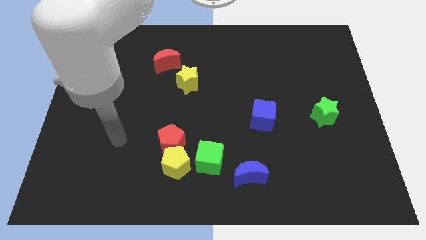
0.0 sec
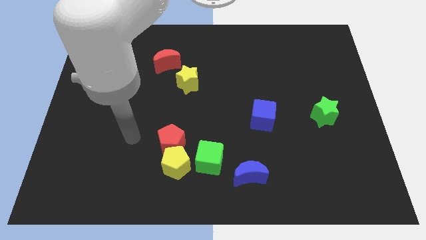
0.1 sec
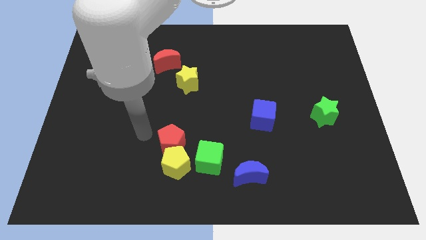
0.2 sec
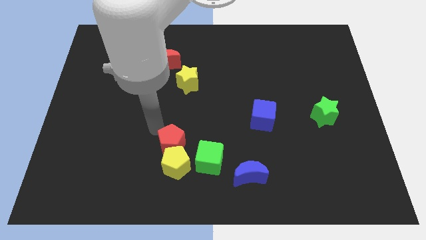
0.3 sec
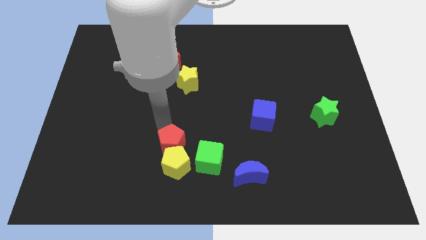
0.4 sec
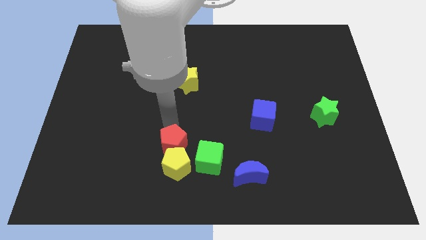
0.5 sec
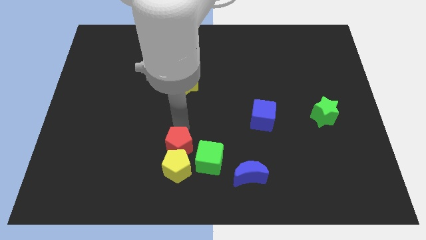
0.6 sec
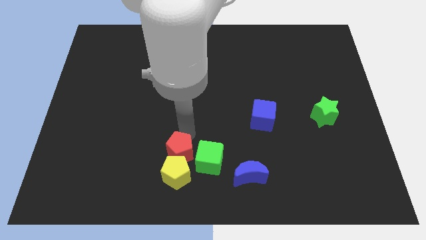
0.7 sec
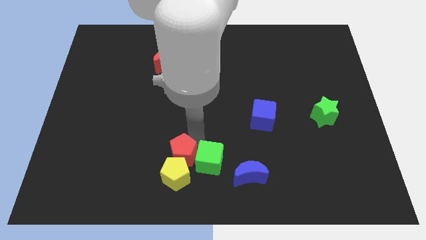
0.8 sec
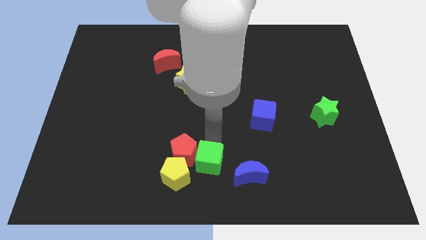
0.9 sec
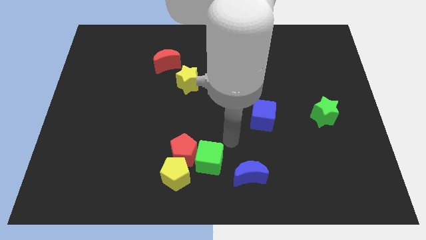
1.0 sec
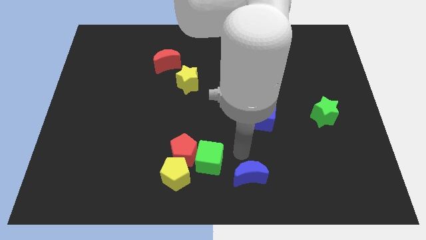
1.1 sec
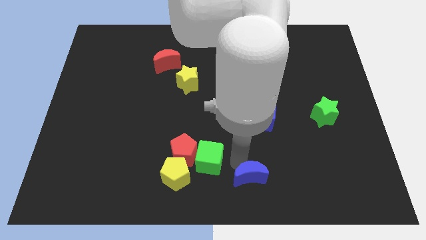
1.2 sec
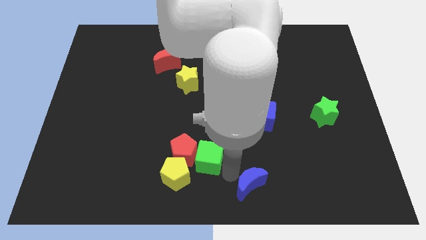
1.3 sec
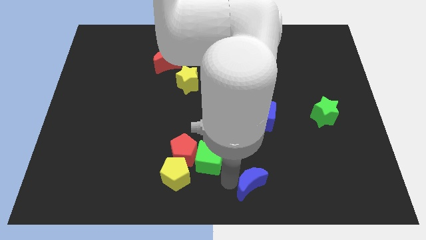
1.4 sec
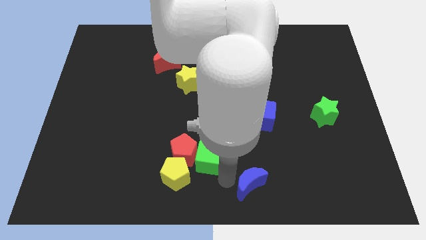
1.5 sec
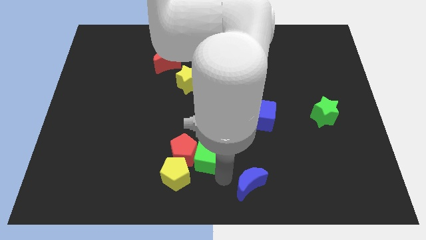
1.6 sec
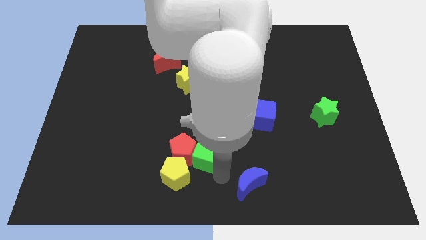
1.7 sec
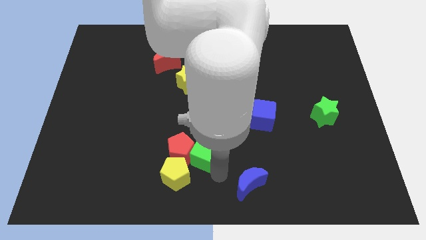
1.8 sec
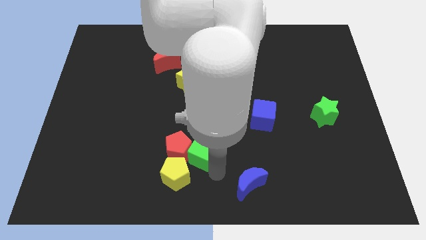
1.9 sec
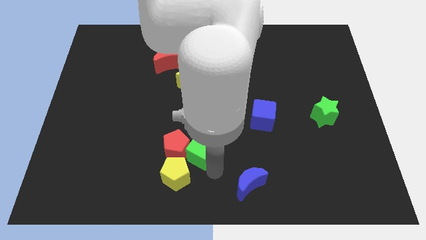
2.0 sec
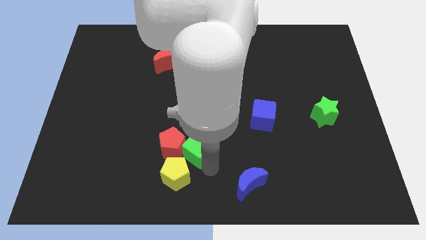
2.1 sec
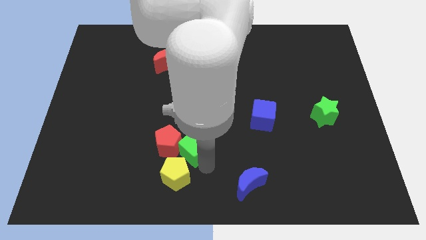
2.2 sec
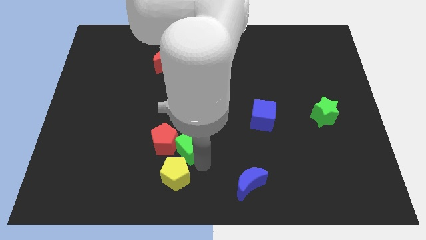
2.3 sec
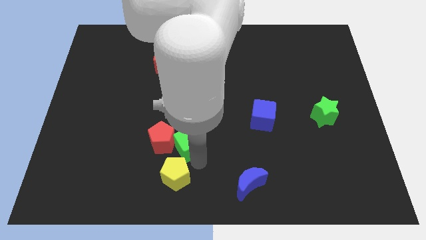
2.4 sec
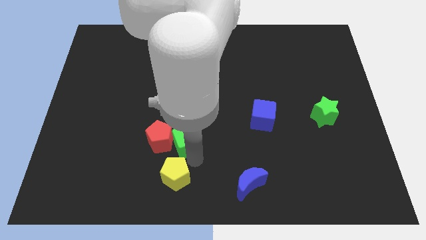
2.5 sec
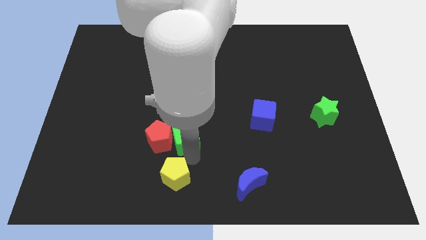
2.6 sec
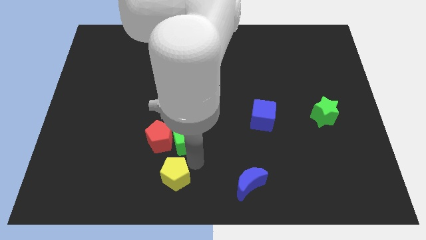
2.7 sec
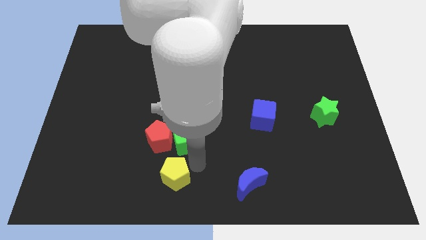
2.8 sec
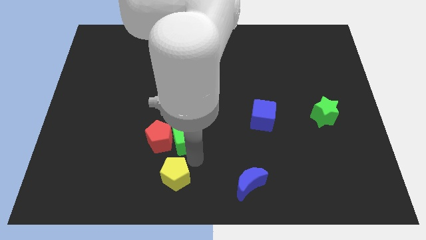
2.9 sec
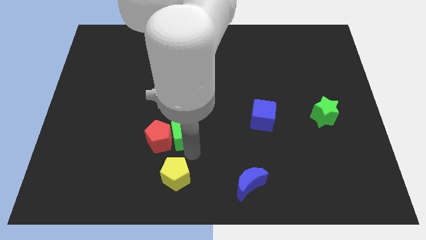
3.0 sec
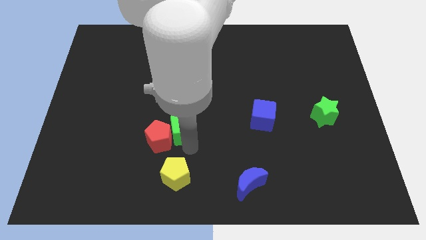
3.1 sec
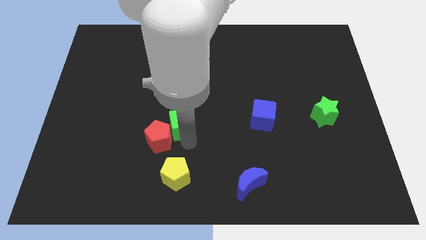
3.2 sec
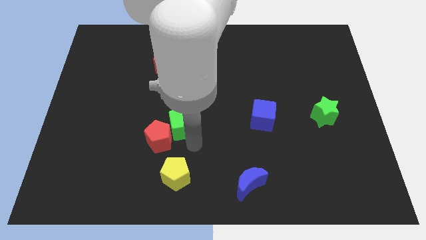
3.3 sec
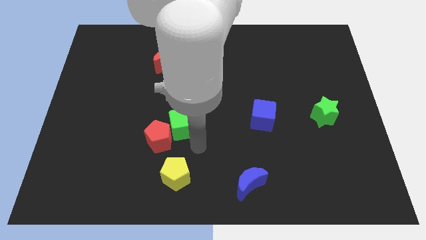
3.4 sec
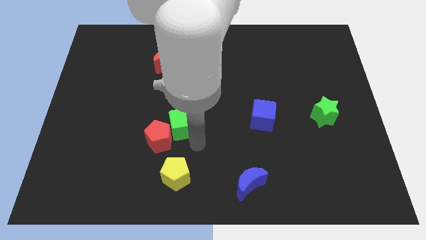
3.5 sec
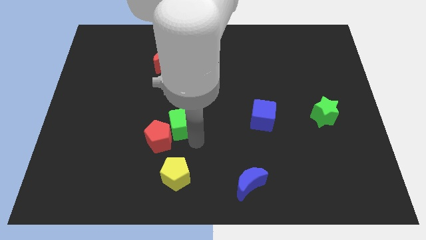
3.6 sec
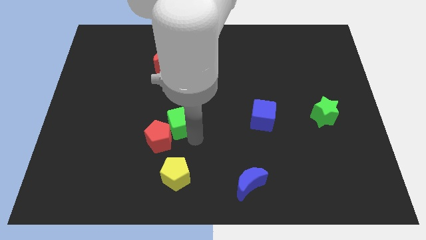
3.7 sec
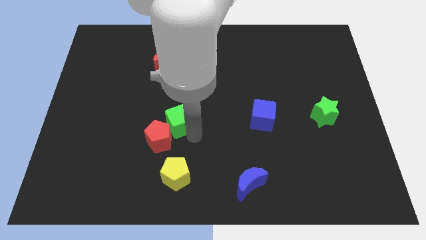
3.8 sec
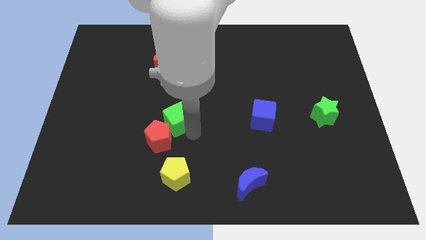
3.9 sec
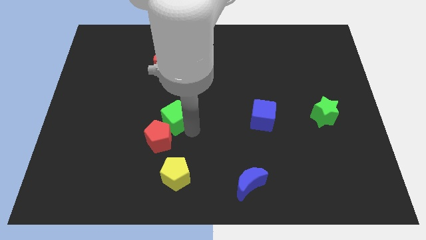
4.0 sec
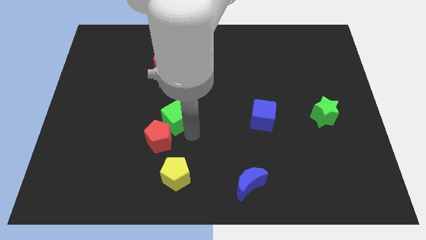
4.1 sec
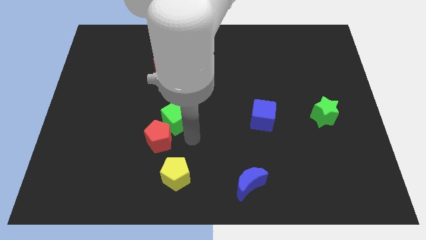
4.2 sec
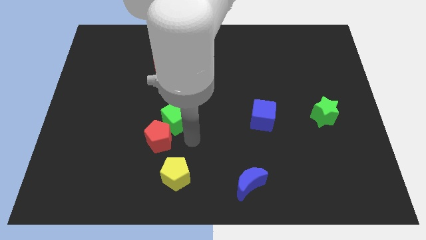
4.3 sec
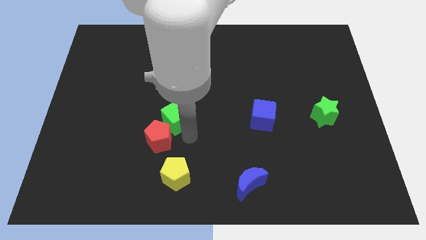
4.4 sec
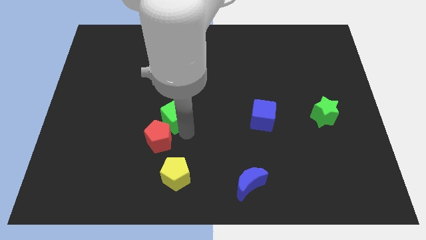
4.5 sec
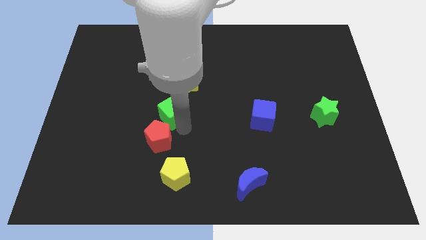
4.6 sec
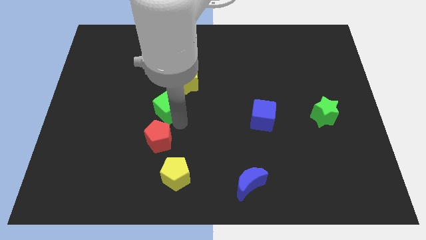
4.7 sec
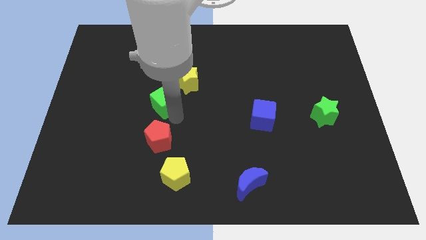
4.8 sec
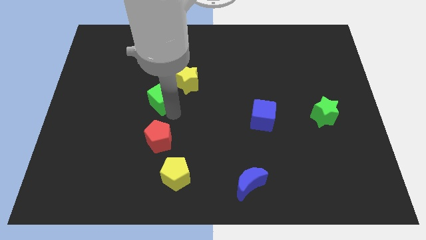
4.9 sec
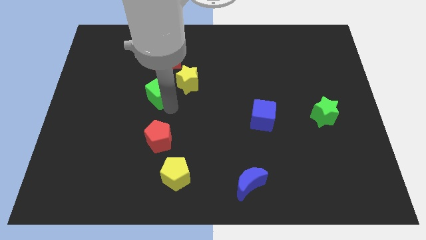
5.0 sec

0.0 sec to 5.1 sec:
slide the green cube diagonally upwards and to the left

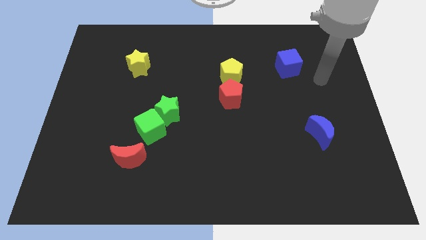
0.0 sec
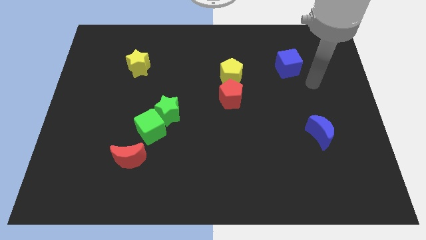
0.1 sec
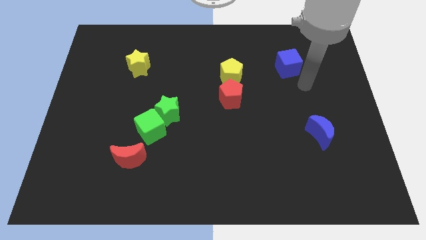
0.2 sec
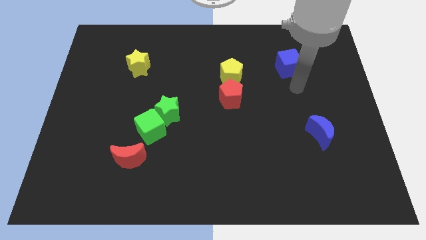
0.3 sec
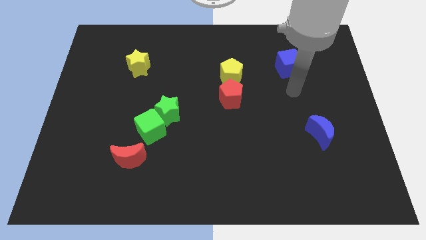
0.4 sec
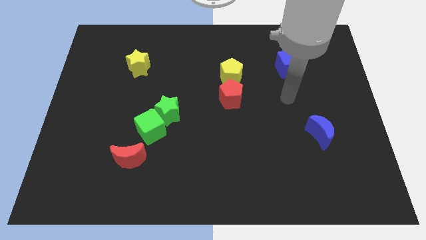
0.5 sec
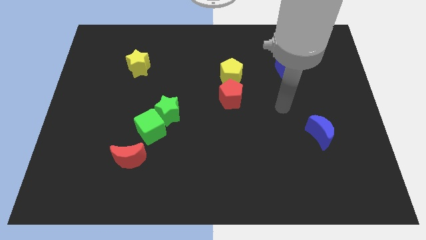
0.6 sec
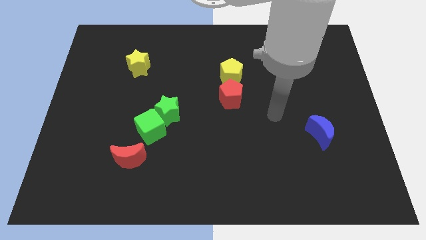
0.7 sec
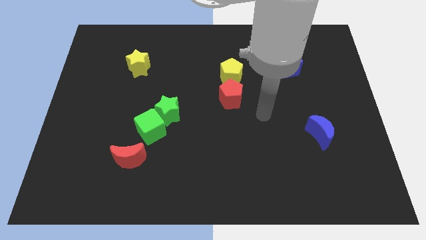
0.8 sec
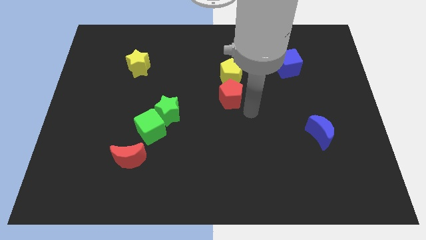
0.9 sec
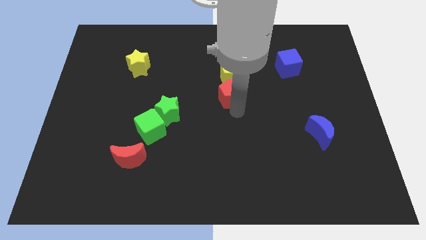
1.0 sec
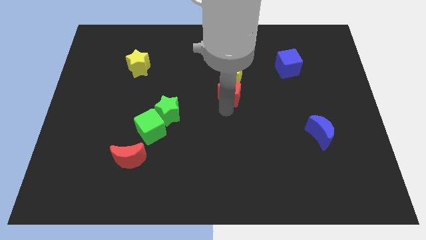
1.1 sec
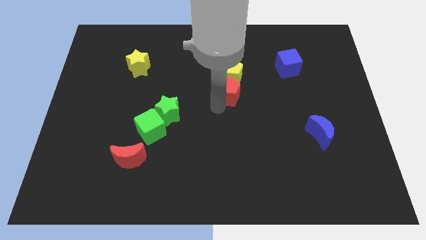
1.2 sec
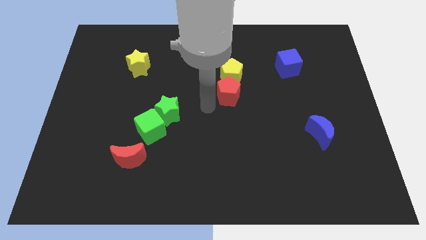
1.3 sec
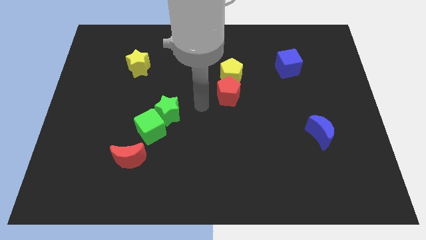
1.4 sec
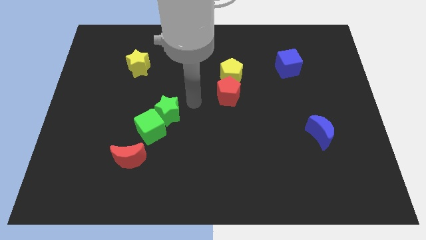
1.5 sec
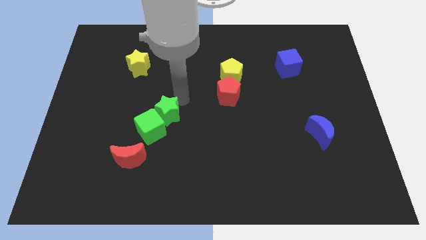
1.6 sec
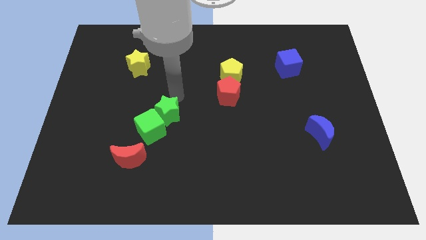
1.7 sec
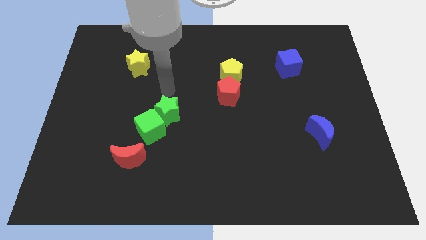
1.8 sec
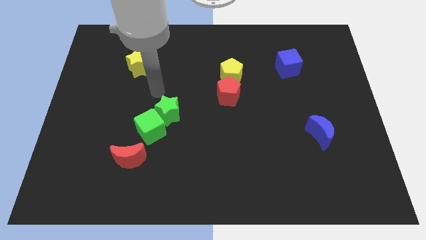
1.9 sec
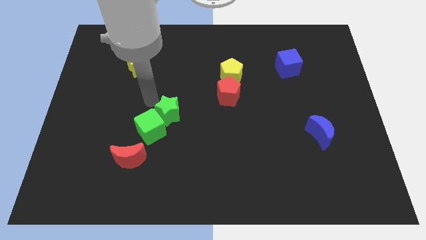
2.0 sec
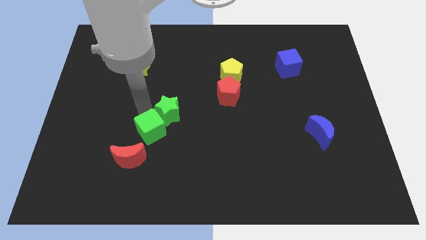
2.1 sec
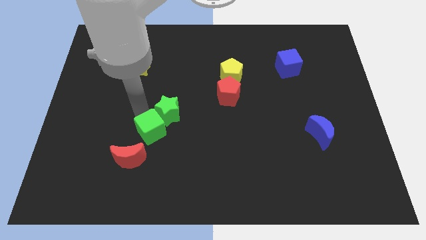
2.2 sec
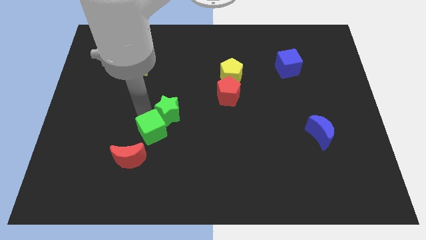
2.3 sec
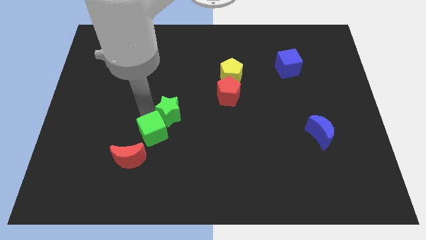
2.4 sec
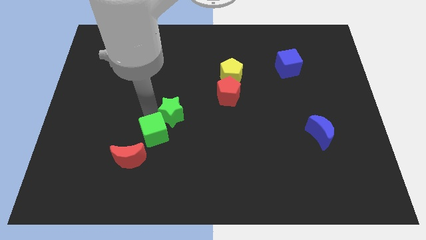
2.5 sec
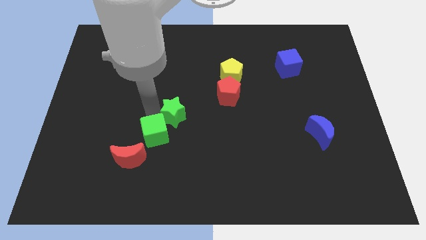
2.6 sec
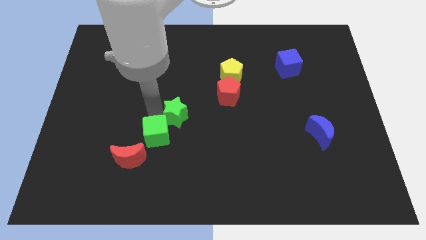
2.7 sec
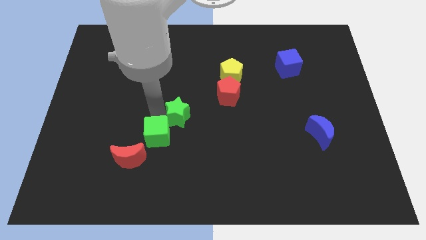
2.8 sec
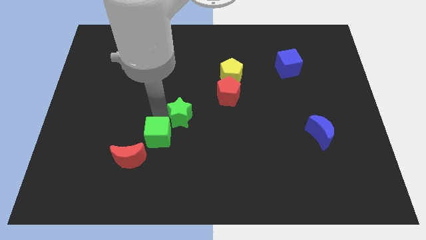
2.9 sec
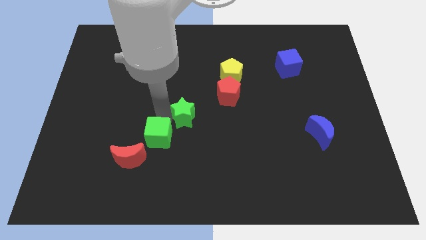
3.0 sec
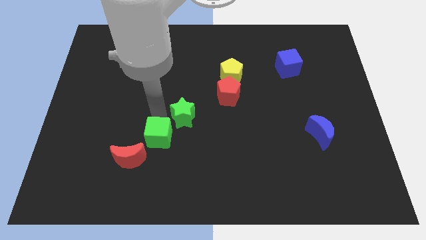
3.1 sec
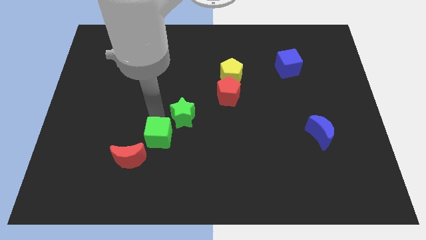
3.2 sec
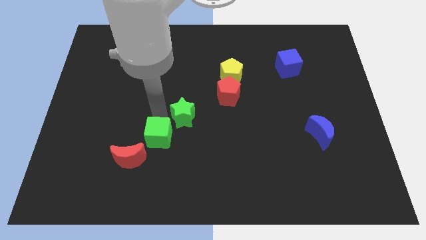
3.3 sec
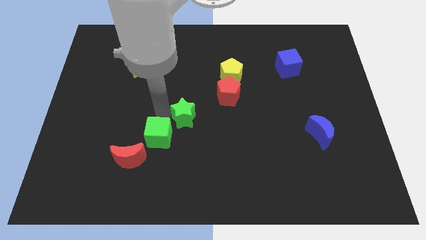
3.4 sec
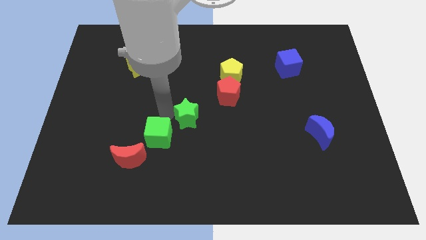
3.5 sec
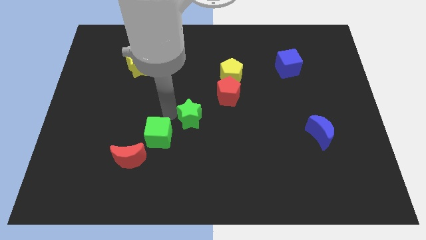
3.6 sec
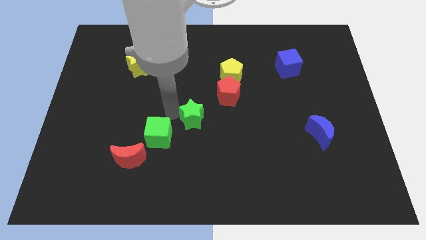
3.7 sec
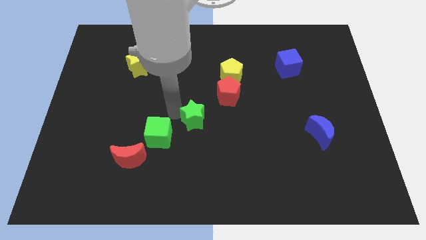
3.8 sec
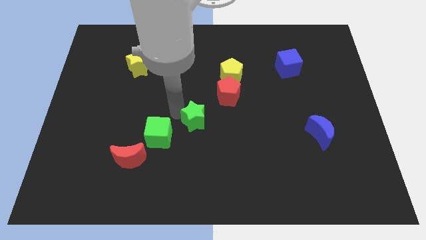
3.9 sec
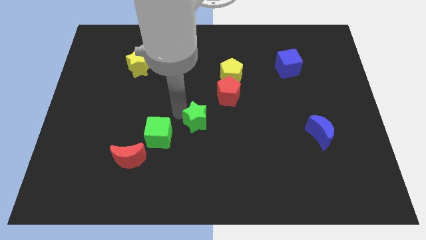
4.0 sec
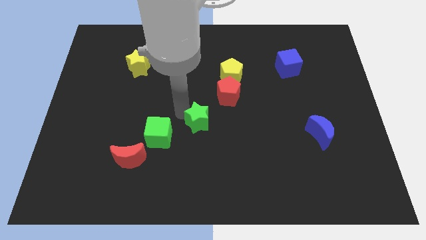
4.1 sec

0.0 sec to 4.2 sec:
slightly slide the green star to the right
